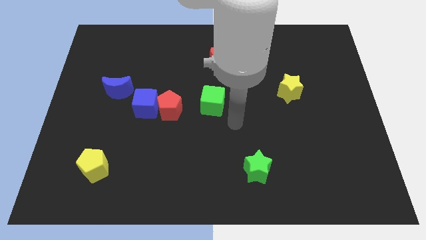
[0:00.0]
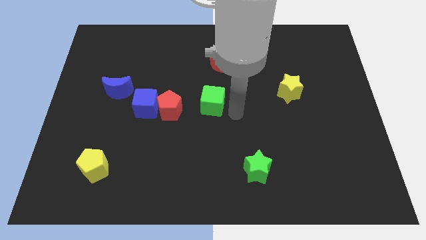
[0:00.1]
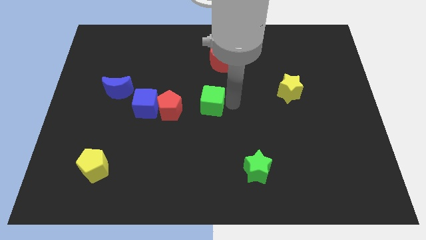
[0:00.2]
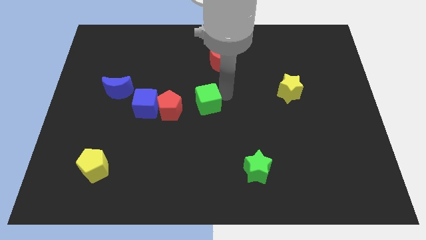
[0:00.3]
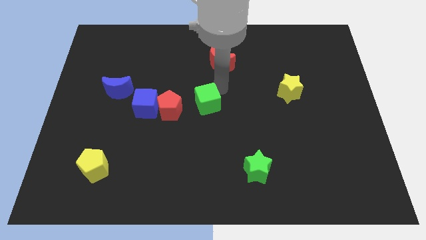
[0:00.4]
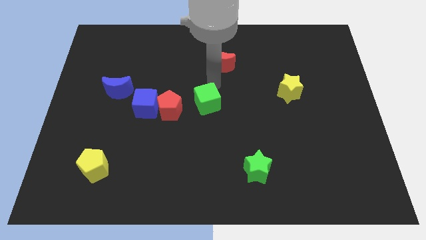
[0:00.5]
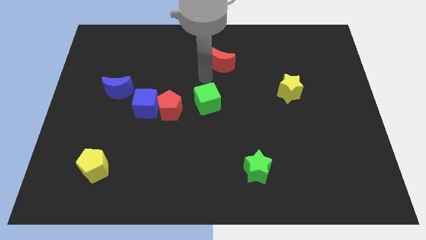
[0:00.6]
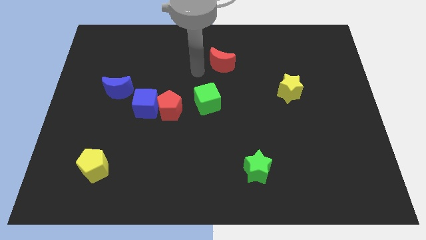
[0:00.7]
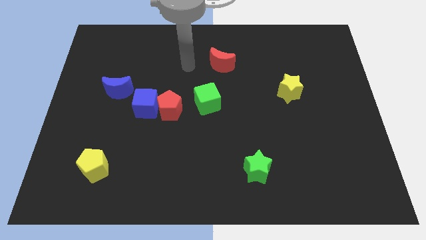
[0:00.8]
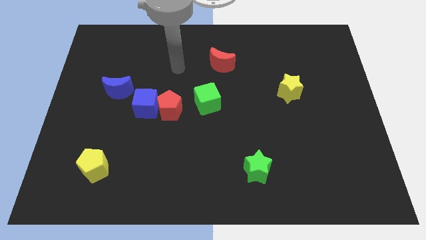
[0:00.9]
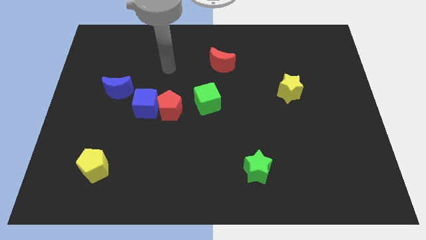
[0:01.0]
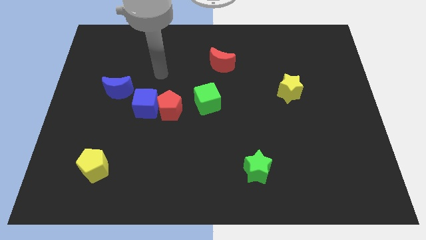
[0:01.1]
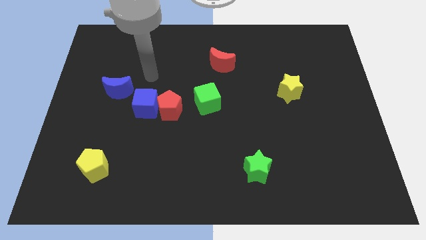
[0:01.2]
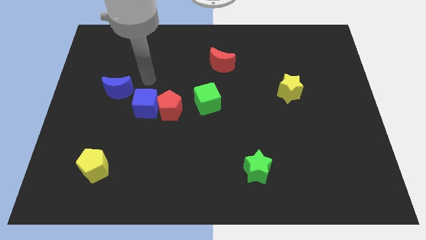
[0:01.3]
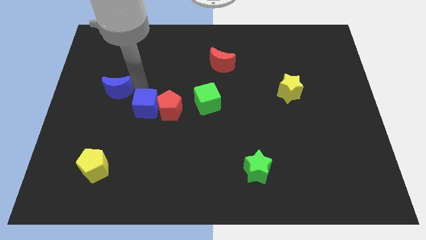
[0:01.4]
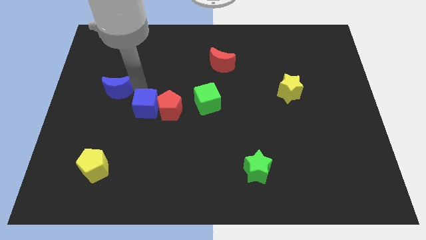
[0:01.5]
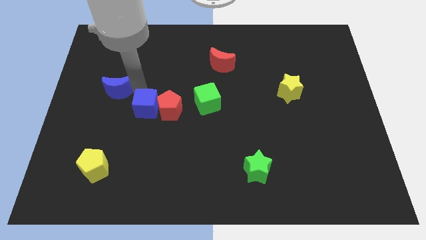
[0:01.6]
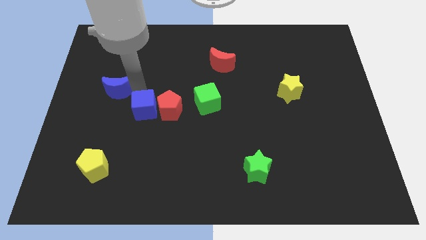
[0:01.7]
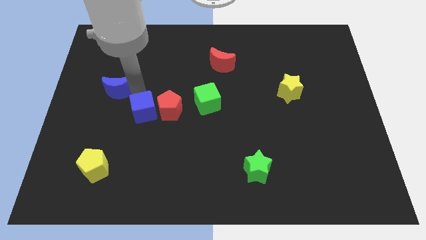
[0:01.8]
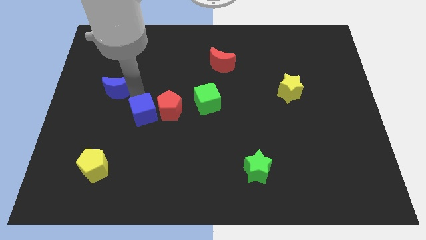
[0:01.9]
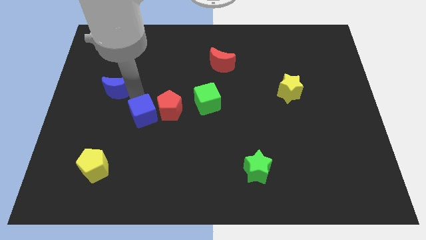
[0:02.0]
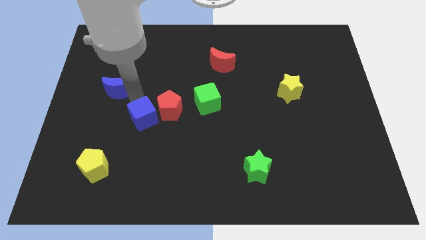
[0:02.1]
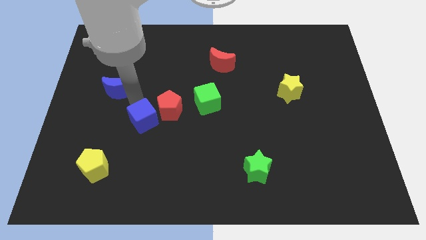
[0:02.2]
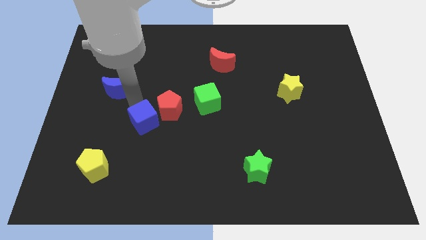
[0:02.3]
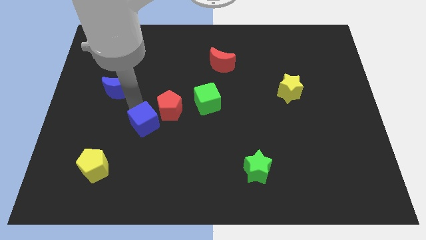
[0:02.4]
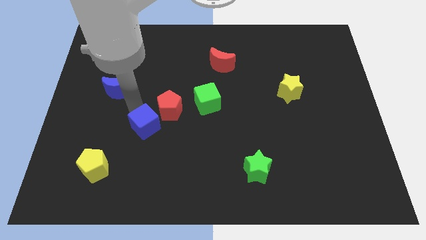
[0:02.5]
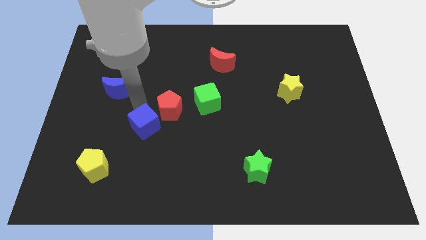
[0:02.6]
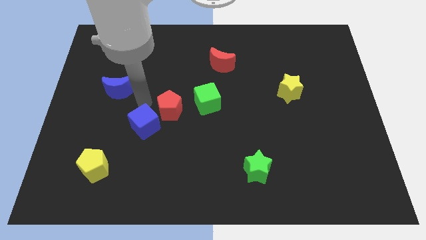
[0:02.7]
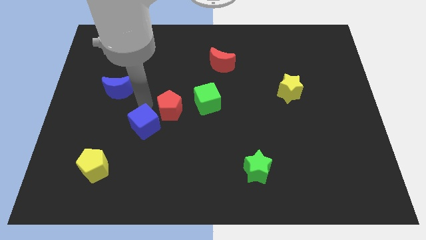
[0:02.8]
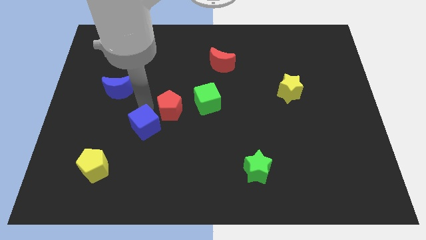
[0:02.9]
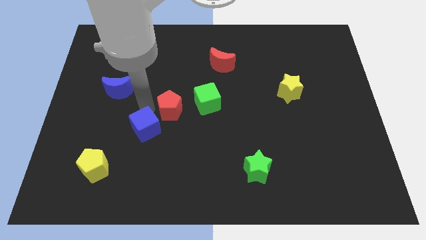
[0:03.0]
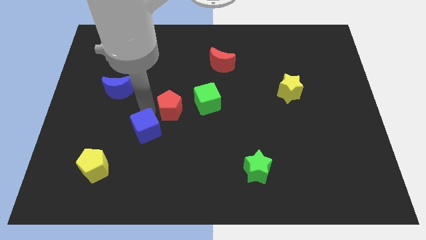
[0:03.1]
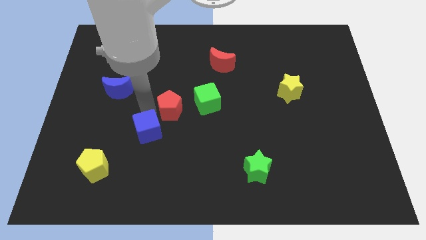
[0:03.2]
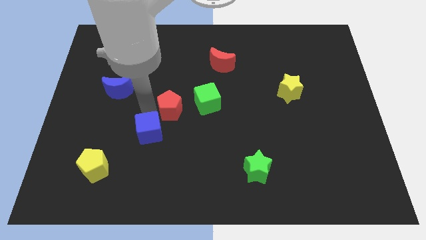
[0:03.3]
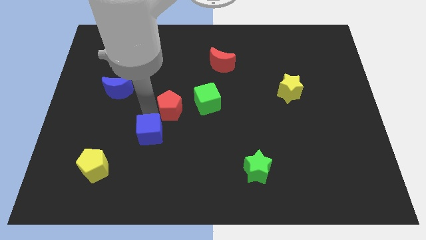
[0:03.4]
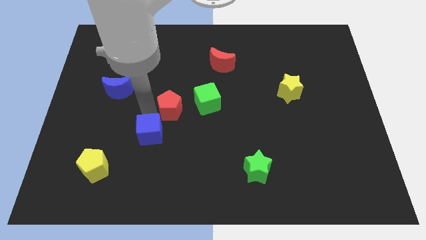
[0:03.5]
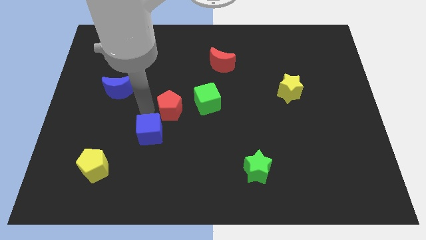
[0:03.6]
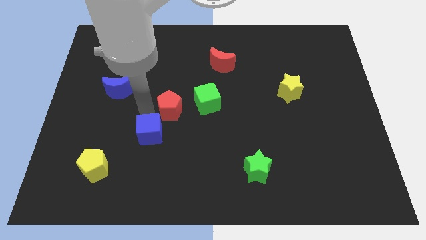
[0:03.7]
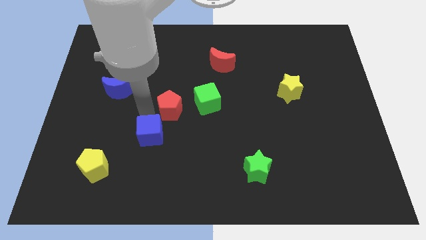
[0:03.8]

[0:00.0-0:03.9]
separate the blue cube from the red pentagon and blue moon

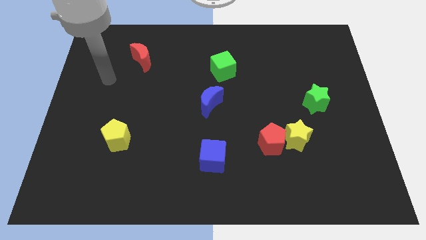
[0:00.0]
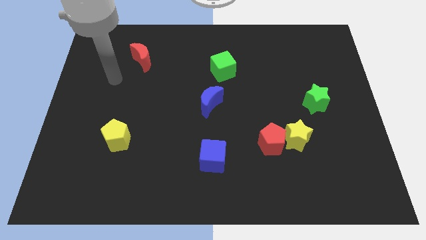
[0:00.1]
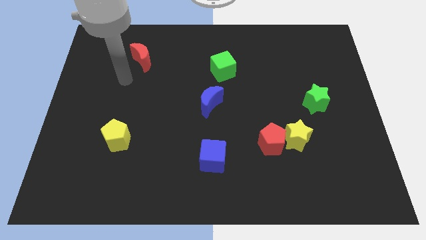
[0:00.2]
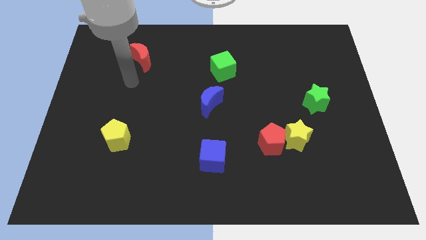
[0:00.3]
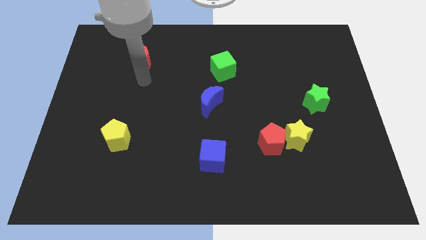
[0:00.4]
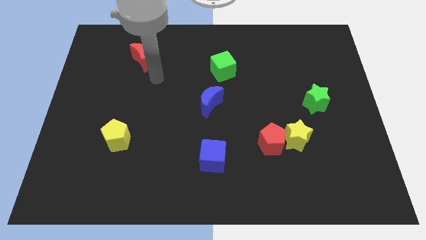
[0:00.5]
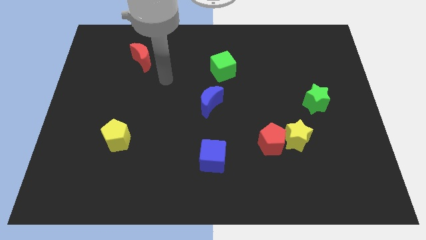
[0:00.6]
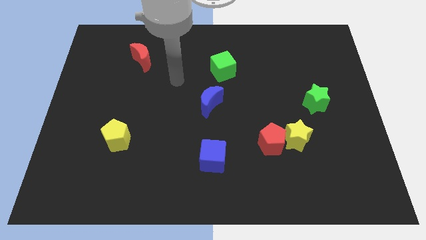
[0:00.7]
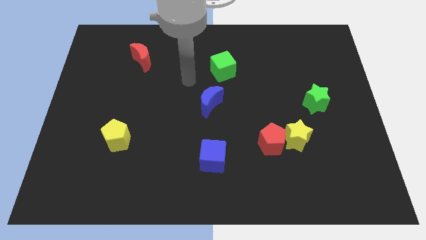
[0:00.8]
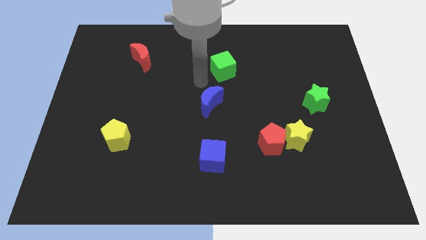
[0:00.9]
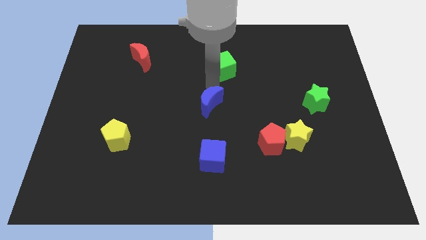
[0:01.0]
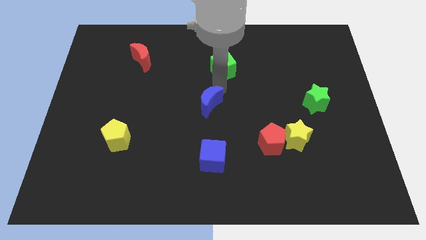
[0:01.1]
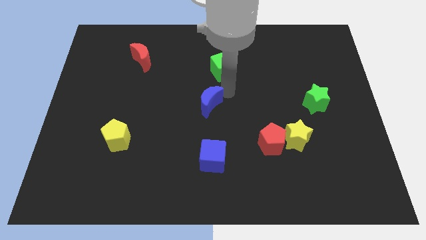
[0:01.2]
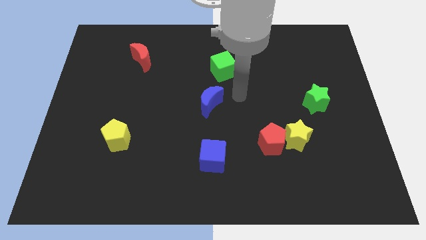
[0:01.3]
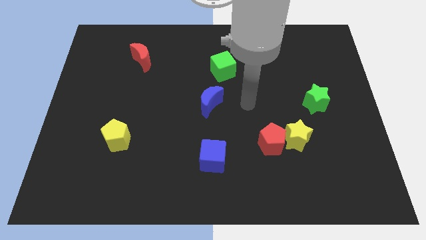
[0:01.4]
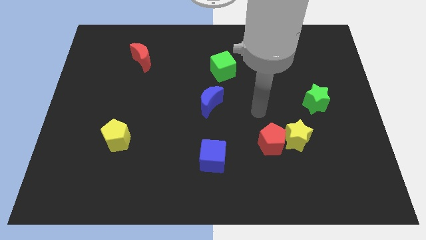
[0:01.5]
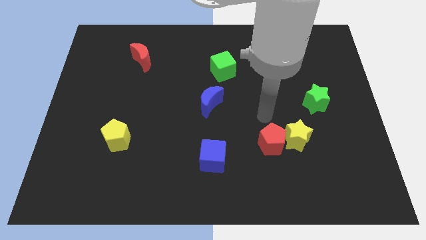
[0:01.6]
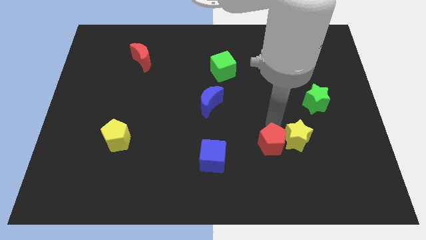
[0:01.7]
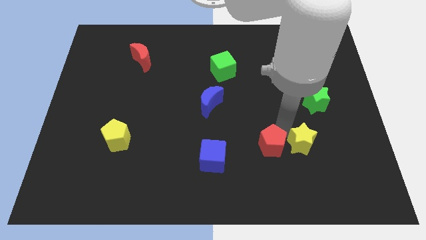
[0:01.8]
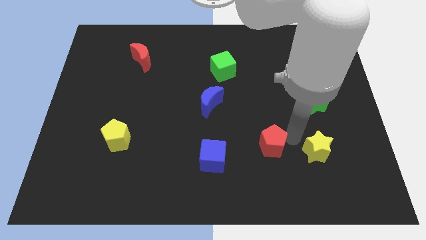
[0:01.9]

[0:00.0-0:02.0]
separate the red pentagon from the yellow star

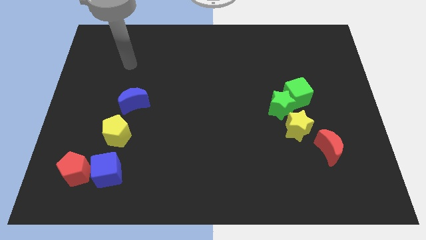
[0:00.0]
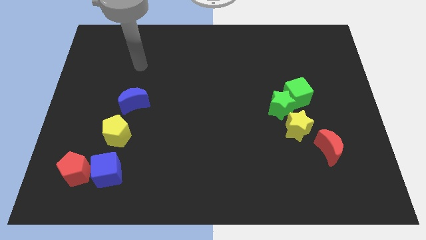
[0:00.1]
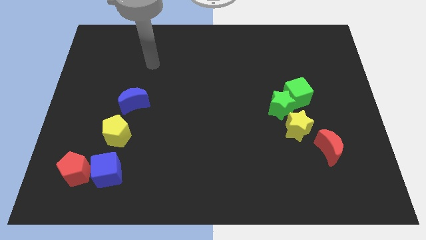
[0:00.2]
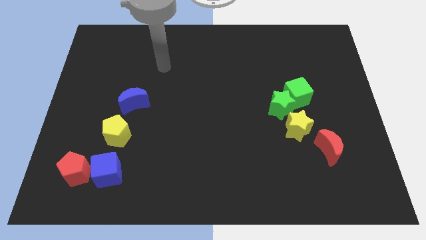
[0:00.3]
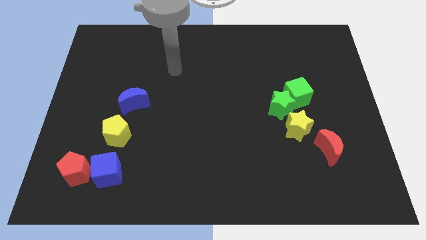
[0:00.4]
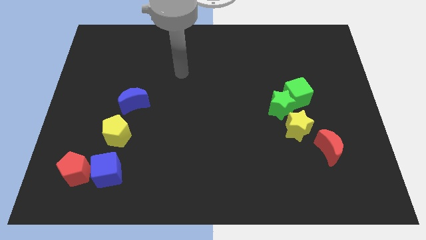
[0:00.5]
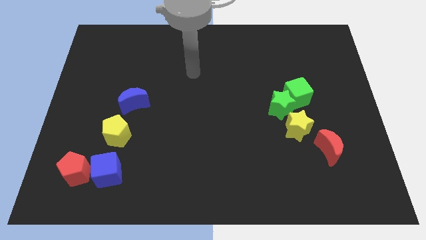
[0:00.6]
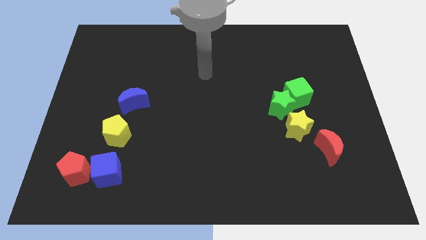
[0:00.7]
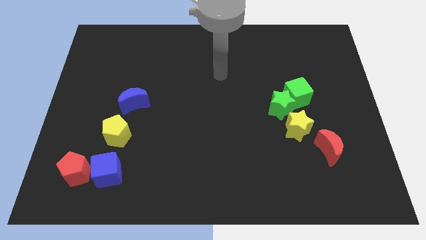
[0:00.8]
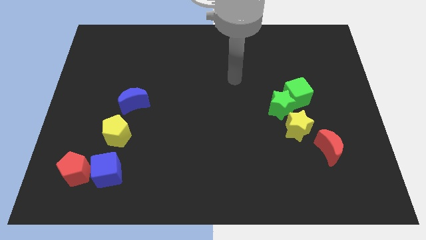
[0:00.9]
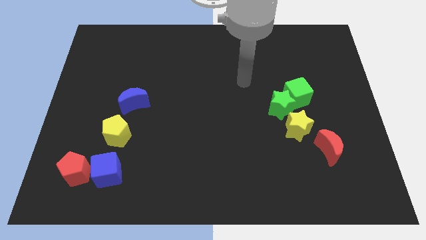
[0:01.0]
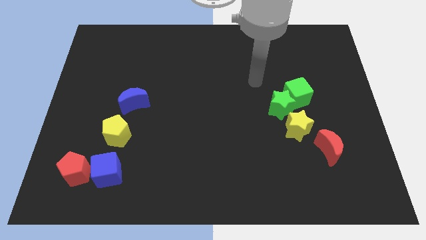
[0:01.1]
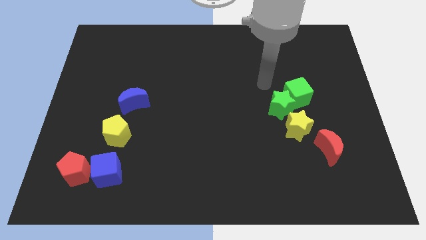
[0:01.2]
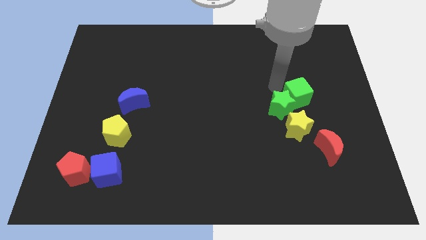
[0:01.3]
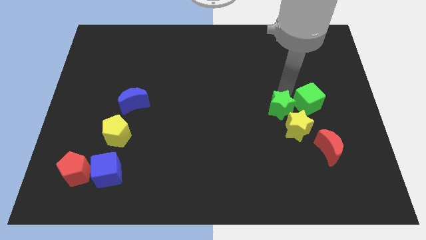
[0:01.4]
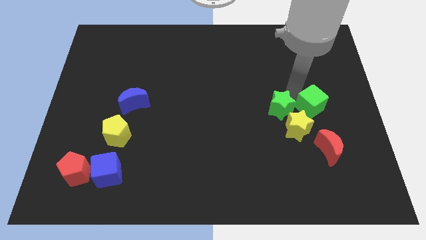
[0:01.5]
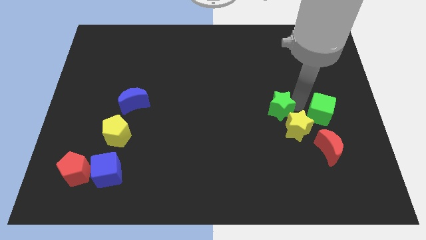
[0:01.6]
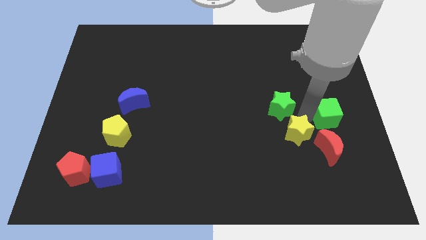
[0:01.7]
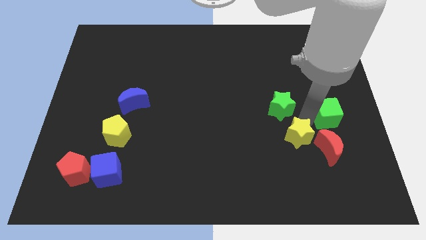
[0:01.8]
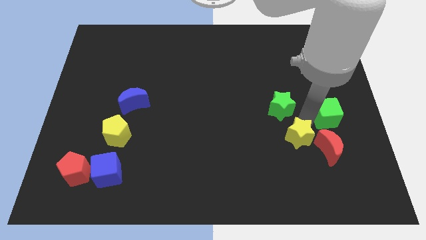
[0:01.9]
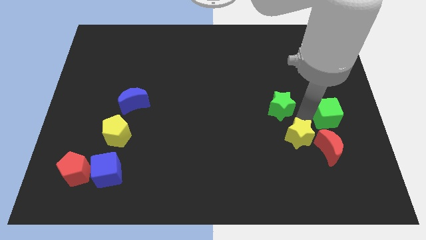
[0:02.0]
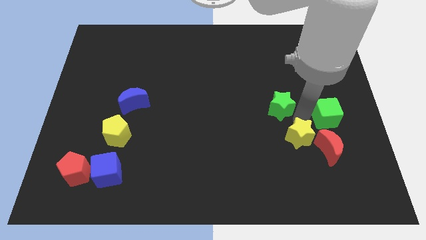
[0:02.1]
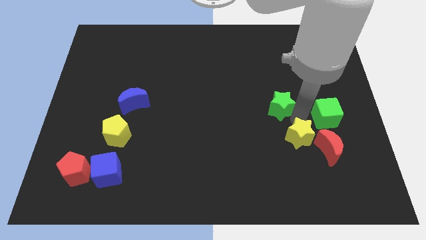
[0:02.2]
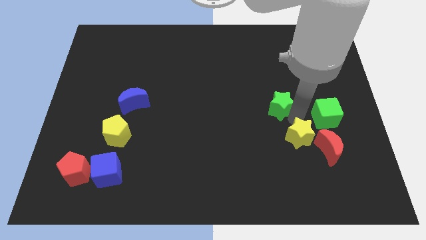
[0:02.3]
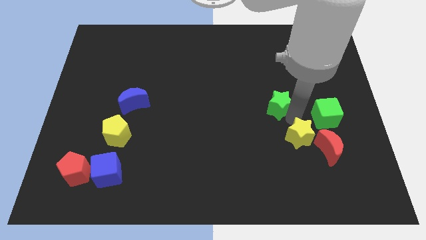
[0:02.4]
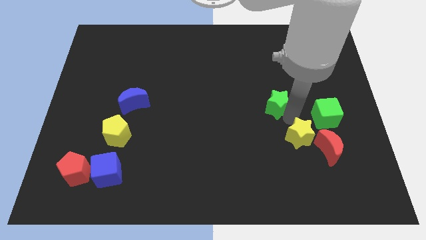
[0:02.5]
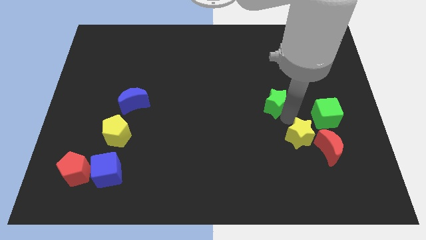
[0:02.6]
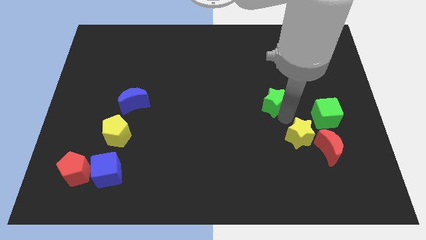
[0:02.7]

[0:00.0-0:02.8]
separate the green star from the green cube and yellow star

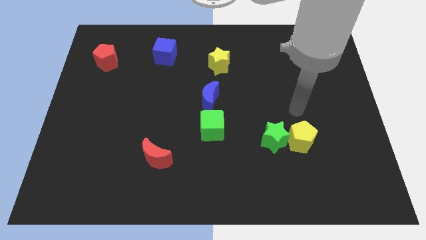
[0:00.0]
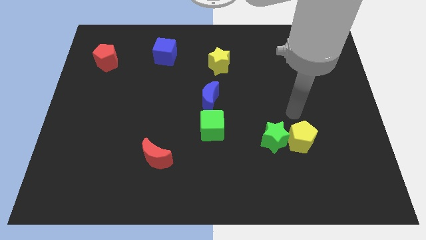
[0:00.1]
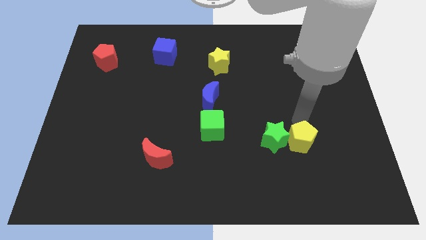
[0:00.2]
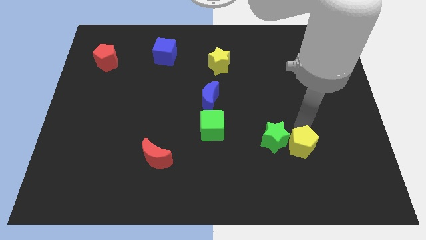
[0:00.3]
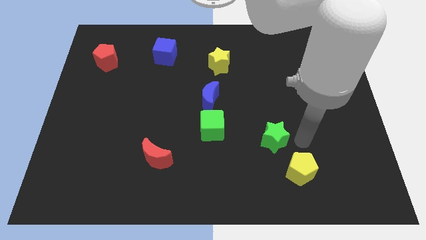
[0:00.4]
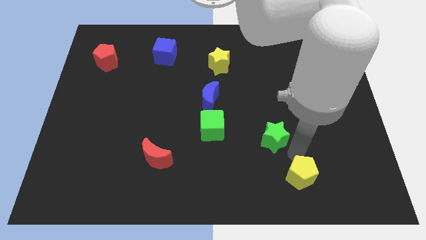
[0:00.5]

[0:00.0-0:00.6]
pull the green star apart from the yellow pentagon
